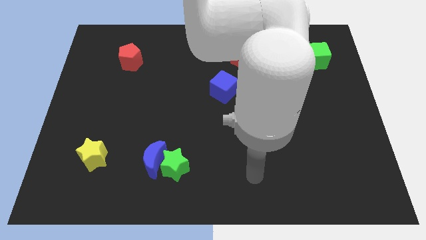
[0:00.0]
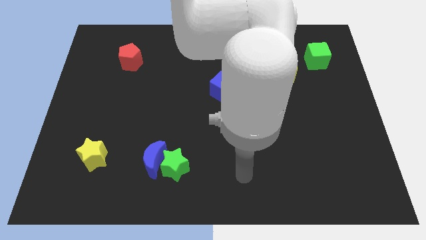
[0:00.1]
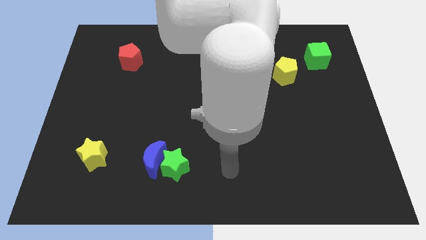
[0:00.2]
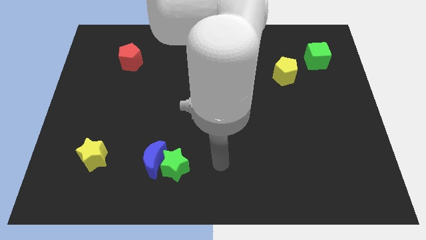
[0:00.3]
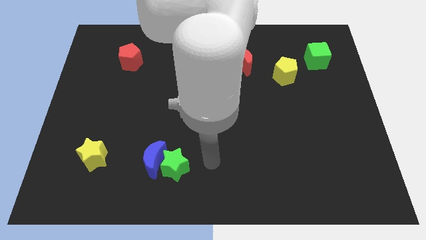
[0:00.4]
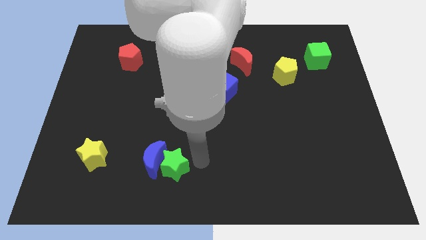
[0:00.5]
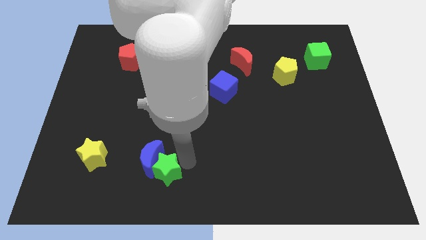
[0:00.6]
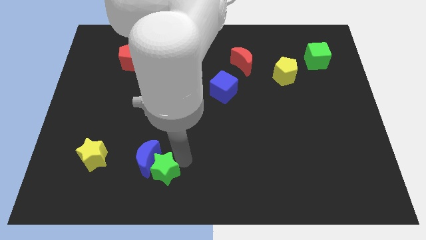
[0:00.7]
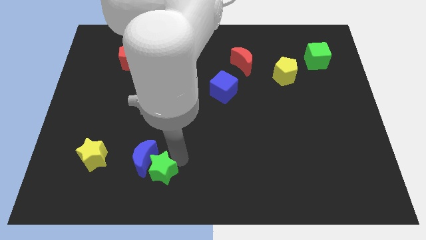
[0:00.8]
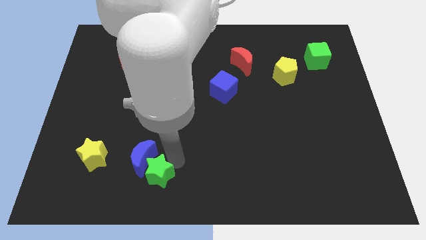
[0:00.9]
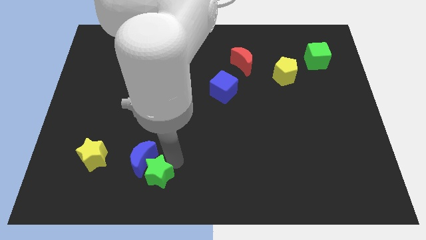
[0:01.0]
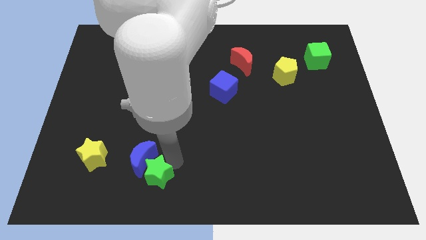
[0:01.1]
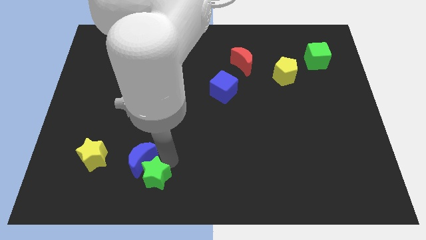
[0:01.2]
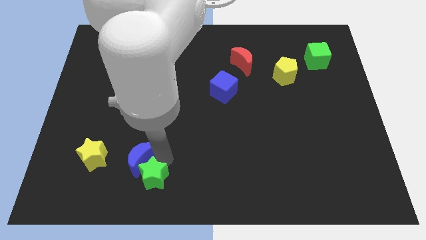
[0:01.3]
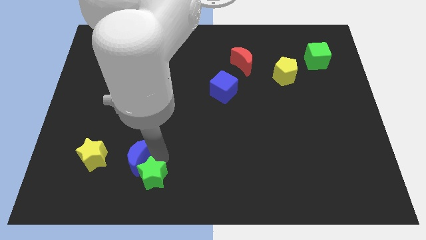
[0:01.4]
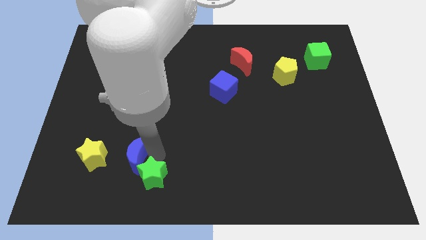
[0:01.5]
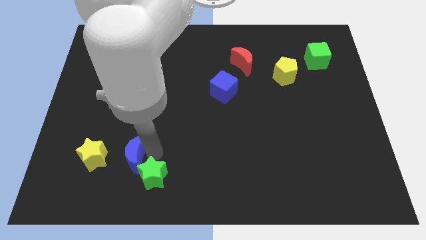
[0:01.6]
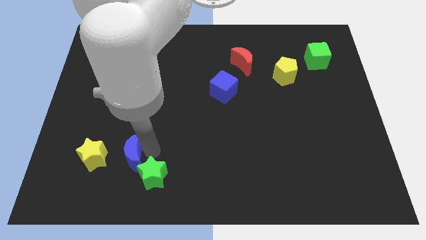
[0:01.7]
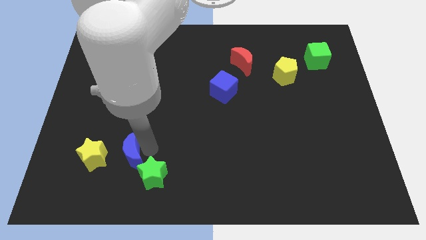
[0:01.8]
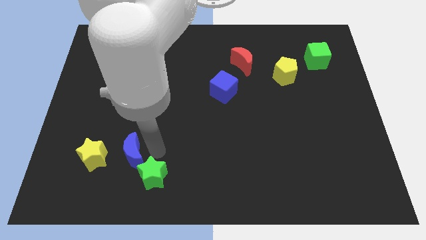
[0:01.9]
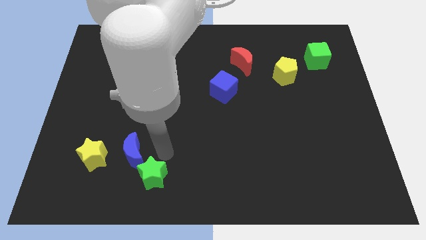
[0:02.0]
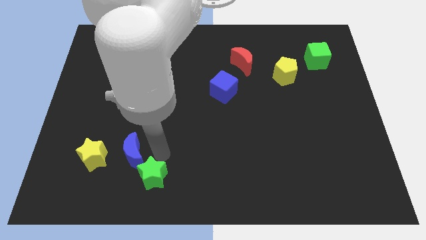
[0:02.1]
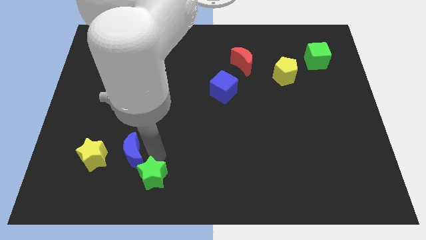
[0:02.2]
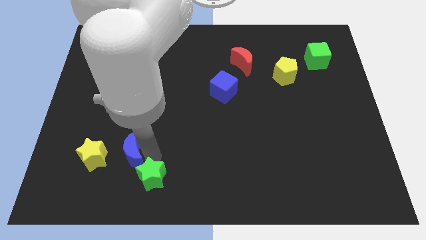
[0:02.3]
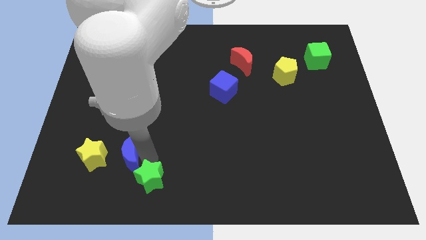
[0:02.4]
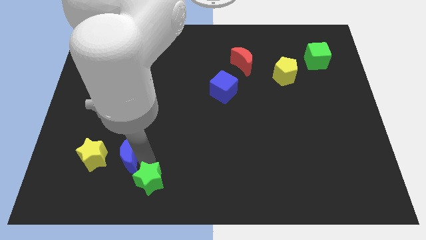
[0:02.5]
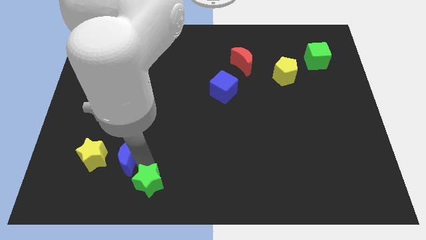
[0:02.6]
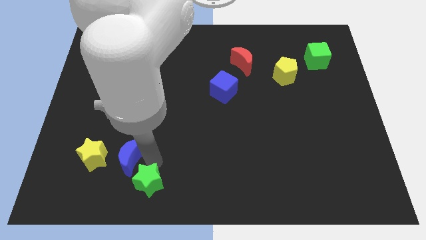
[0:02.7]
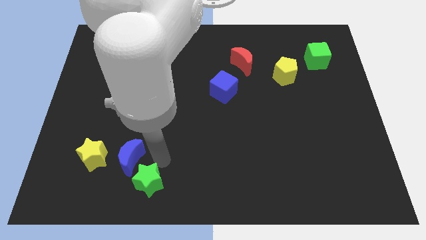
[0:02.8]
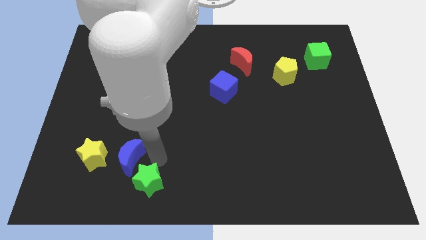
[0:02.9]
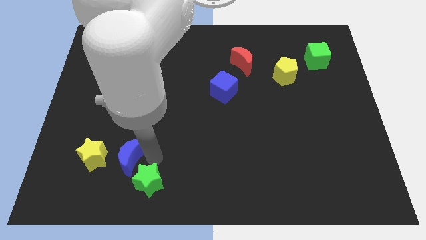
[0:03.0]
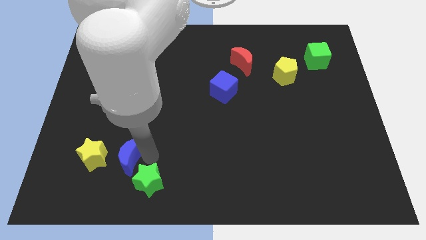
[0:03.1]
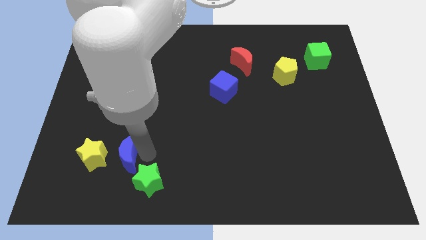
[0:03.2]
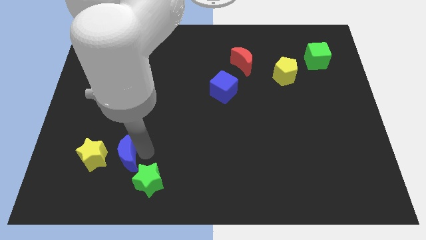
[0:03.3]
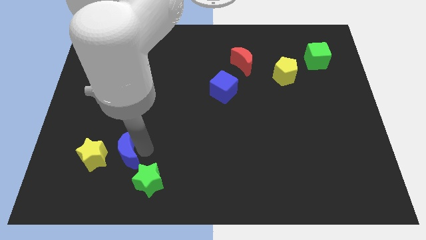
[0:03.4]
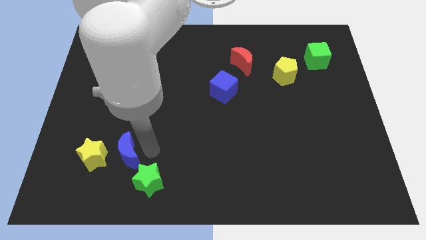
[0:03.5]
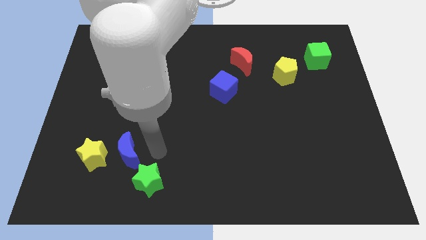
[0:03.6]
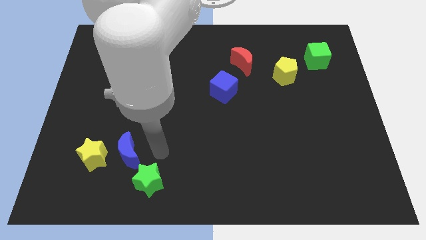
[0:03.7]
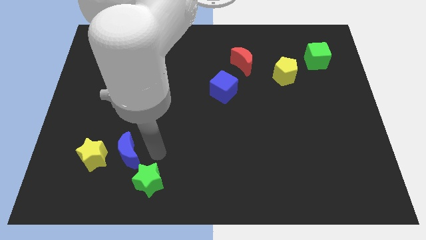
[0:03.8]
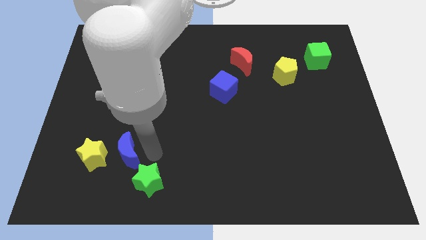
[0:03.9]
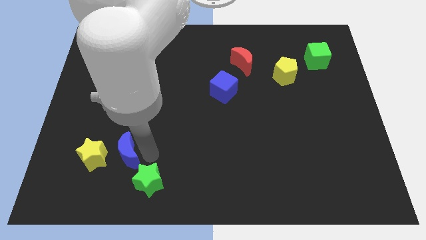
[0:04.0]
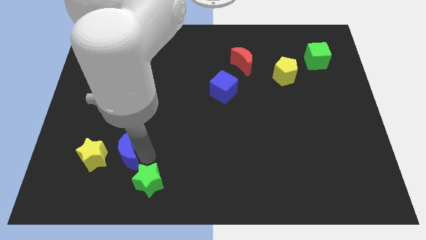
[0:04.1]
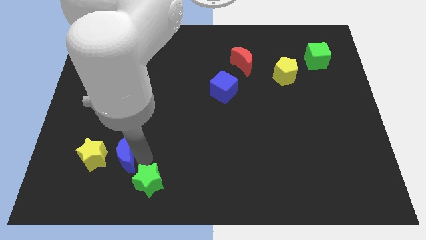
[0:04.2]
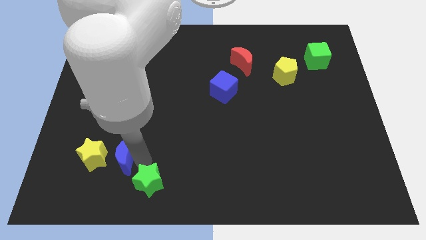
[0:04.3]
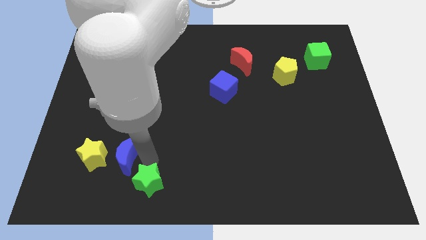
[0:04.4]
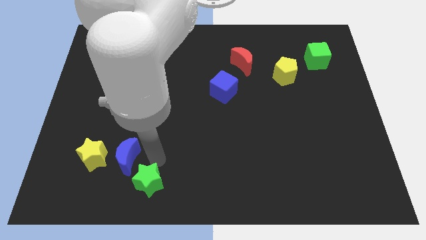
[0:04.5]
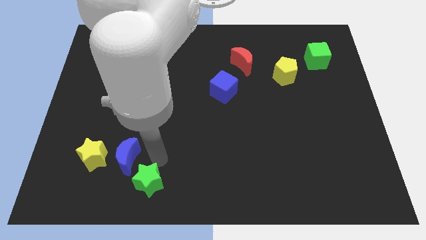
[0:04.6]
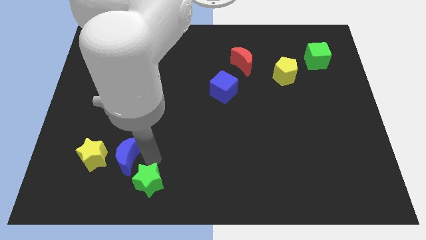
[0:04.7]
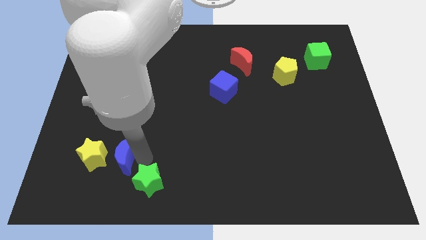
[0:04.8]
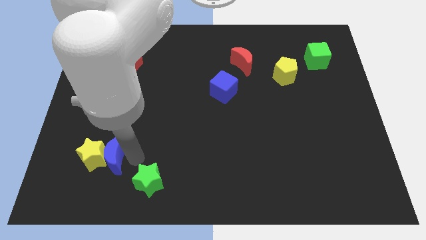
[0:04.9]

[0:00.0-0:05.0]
push the blue moon next to the yellow star

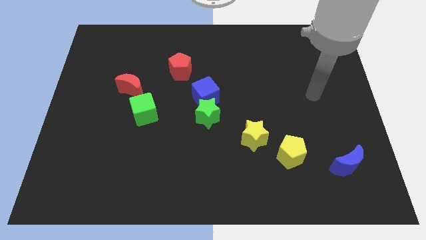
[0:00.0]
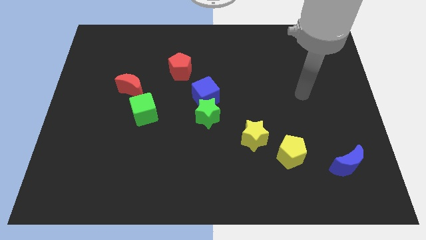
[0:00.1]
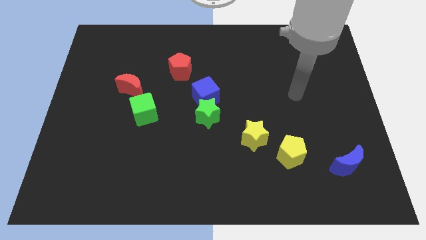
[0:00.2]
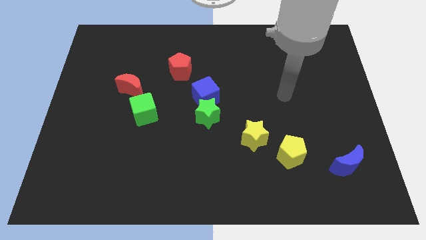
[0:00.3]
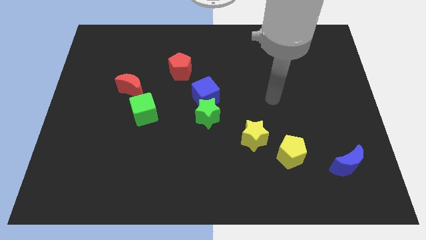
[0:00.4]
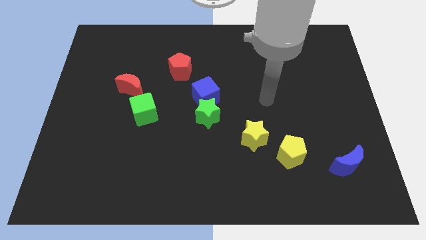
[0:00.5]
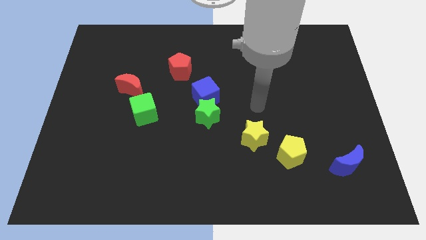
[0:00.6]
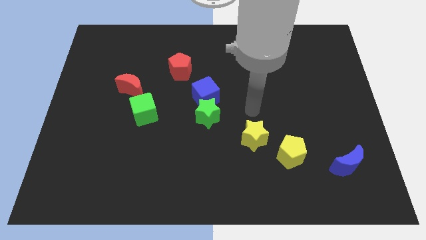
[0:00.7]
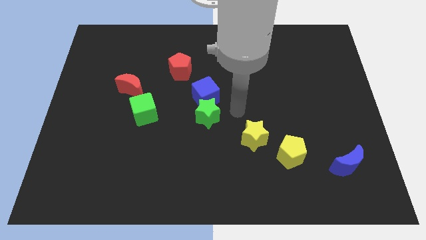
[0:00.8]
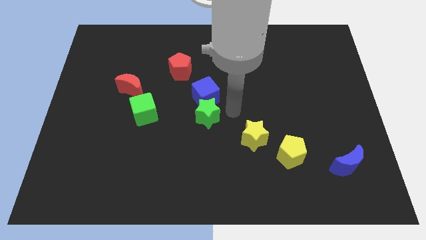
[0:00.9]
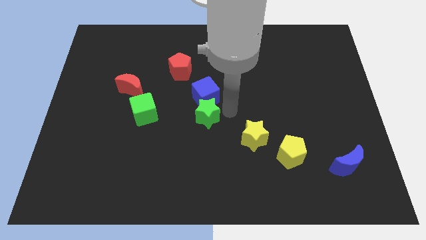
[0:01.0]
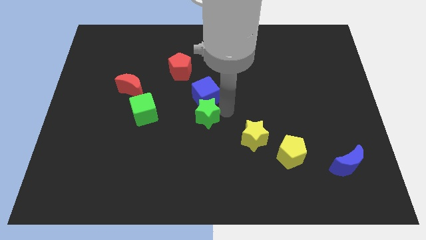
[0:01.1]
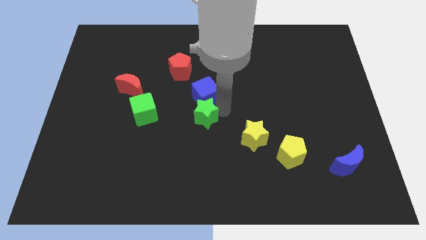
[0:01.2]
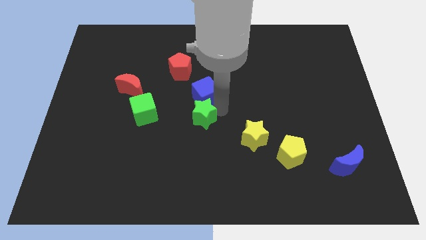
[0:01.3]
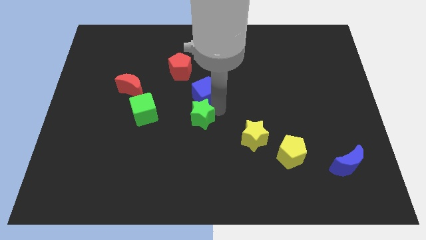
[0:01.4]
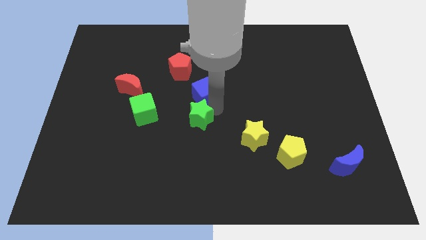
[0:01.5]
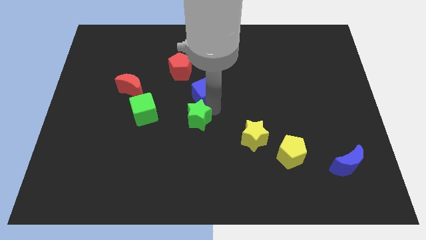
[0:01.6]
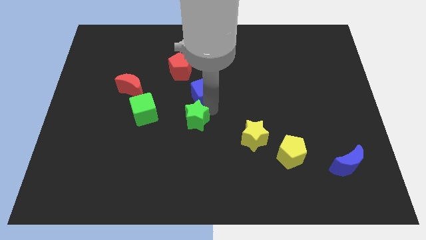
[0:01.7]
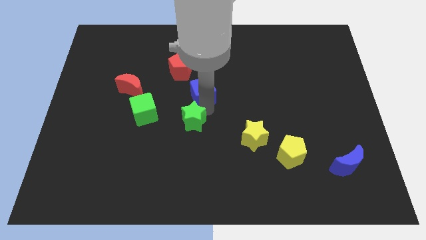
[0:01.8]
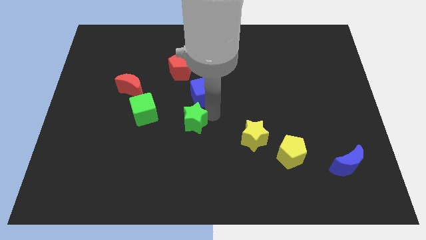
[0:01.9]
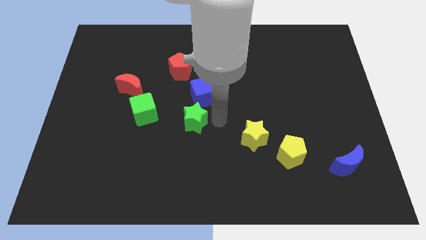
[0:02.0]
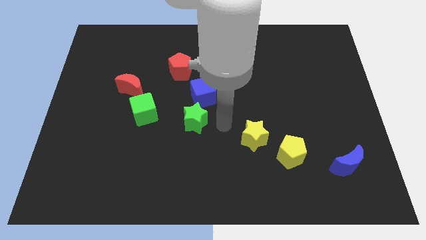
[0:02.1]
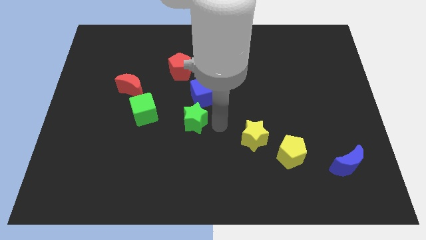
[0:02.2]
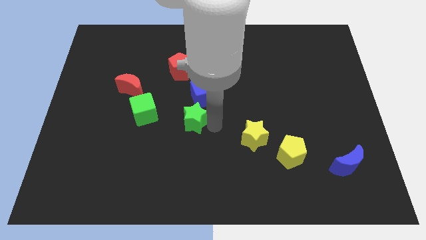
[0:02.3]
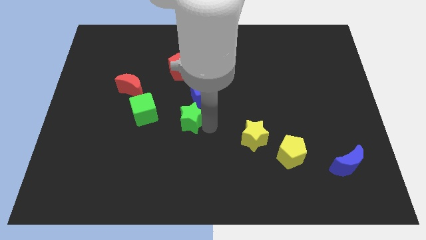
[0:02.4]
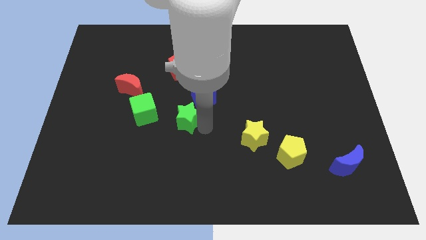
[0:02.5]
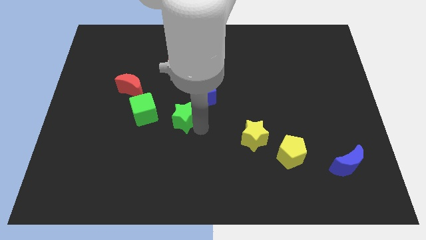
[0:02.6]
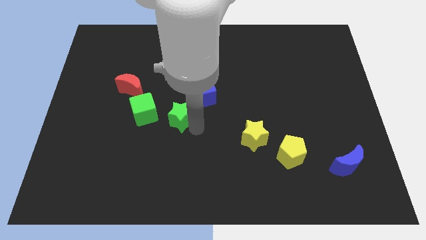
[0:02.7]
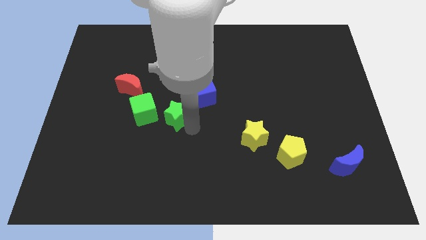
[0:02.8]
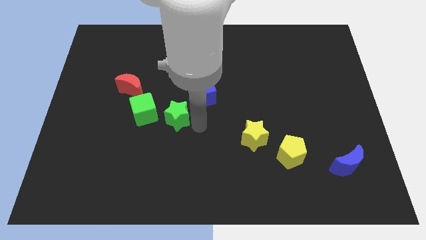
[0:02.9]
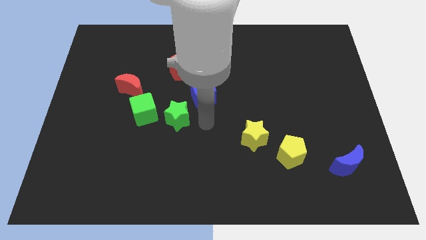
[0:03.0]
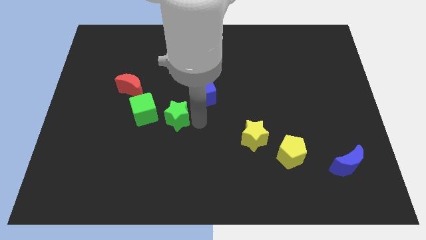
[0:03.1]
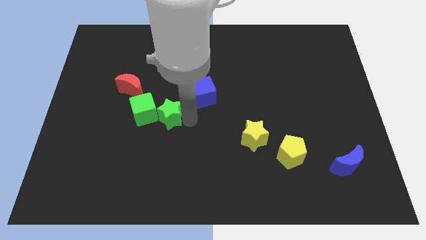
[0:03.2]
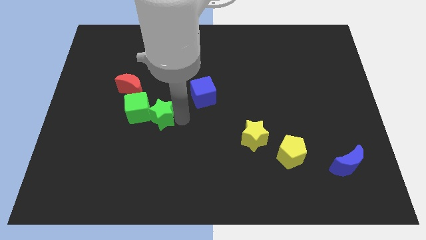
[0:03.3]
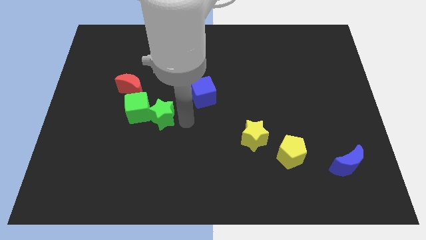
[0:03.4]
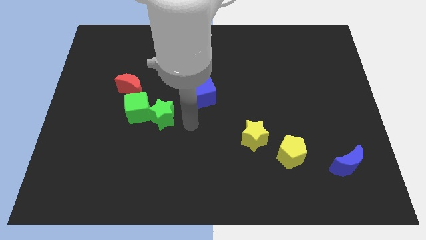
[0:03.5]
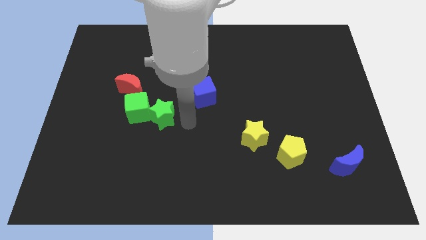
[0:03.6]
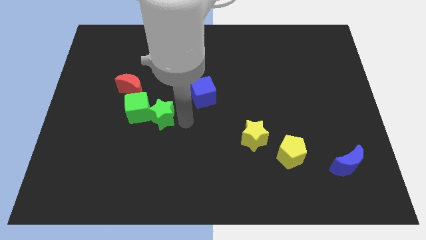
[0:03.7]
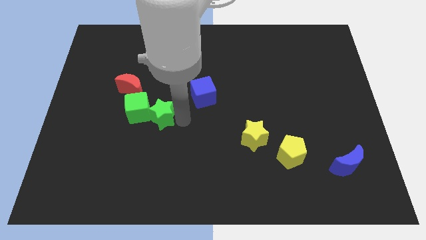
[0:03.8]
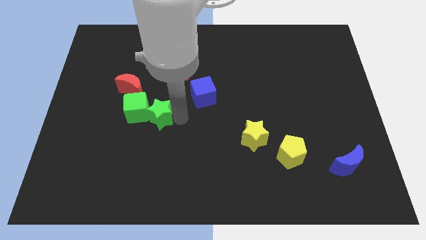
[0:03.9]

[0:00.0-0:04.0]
move the green star next to the green cube
